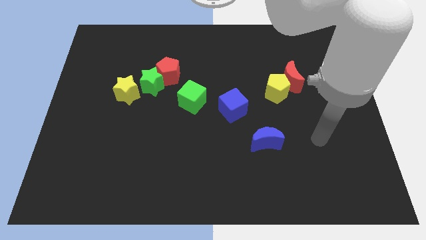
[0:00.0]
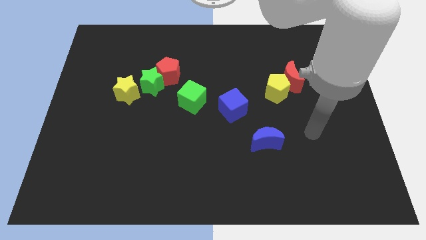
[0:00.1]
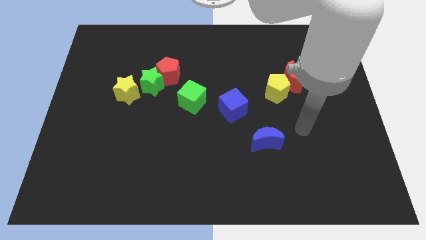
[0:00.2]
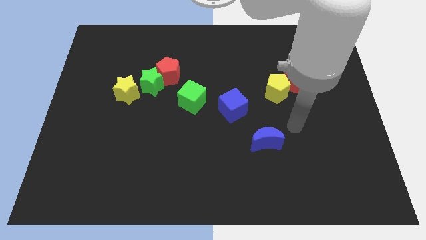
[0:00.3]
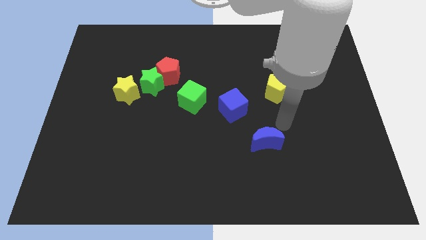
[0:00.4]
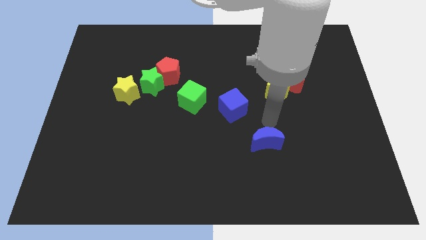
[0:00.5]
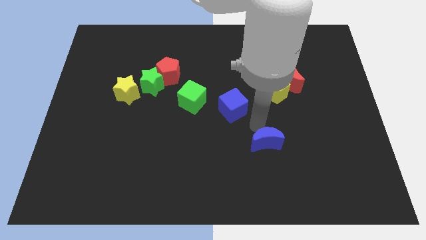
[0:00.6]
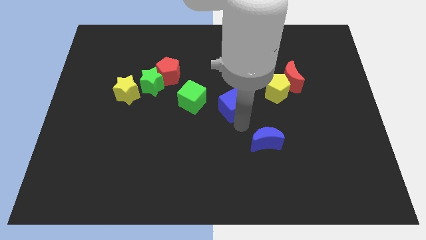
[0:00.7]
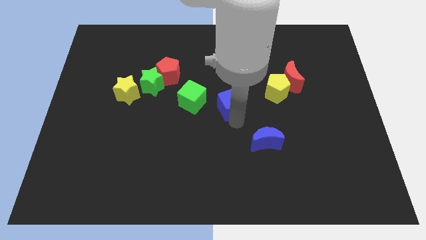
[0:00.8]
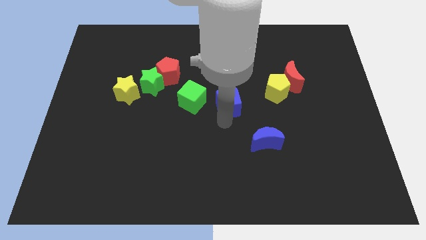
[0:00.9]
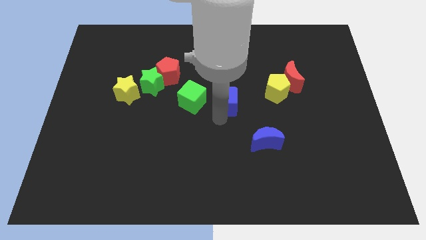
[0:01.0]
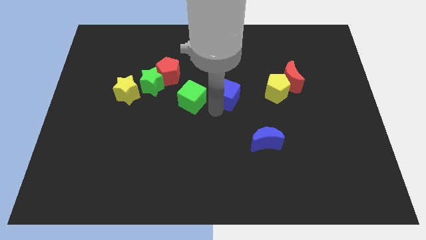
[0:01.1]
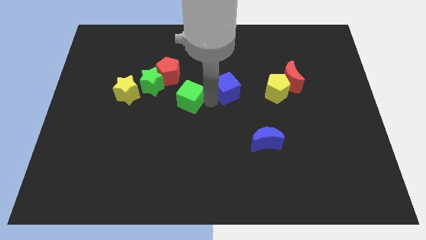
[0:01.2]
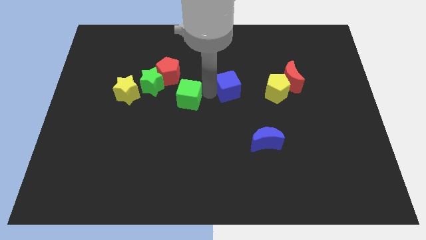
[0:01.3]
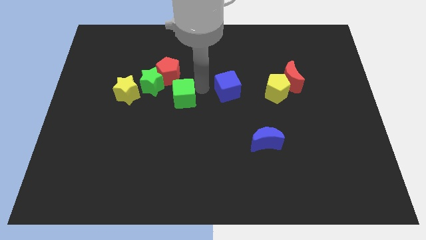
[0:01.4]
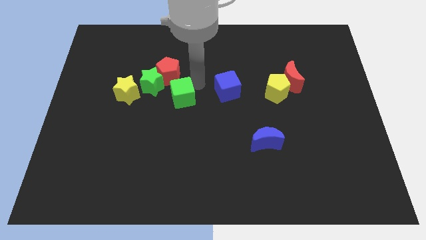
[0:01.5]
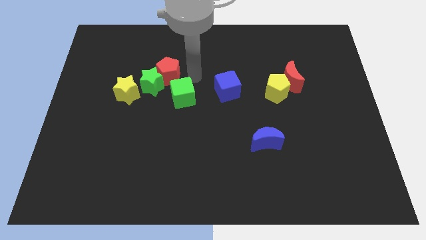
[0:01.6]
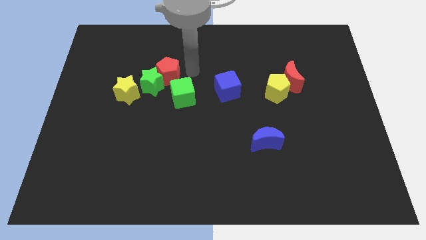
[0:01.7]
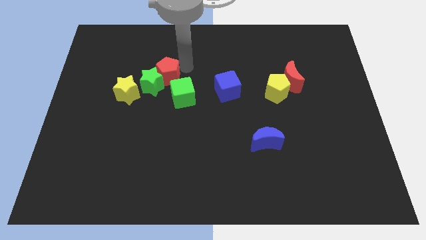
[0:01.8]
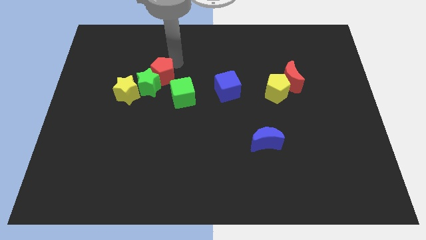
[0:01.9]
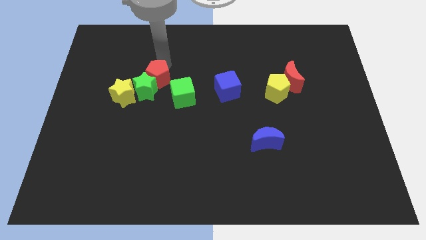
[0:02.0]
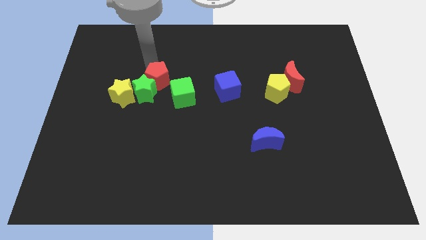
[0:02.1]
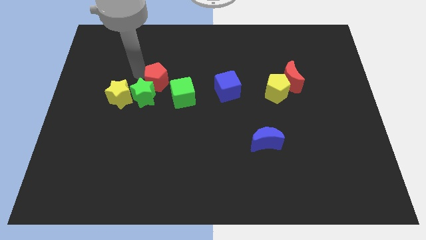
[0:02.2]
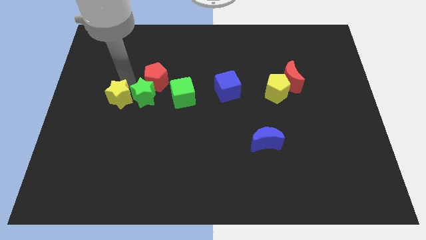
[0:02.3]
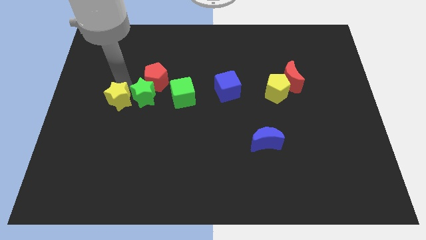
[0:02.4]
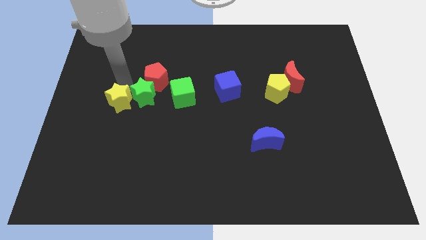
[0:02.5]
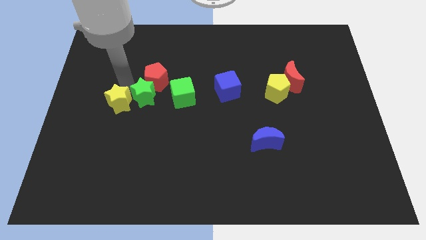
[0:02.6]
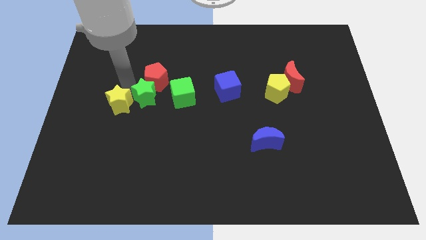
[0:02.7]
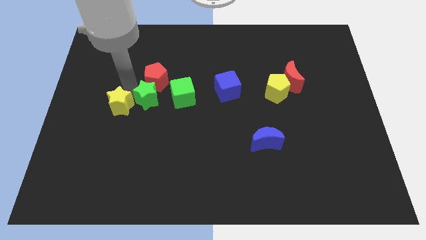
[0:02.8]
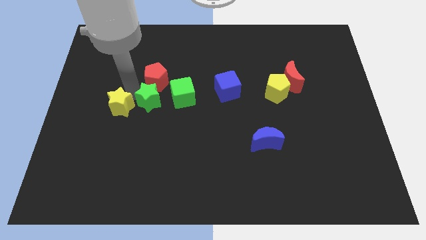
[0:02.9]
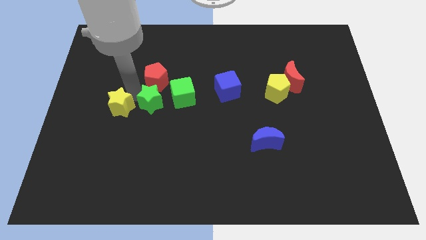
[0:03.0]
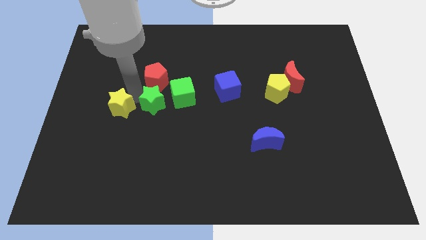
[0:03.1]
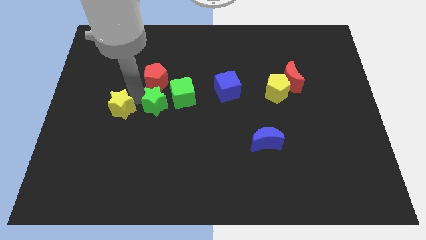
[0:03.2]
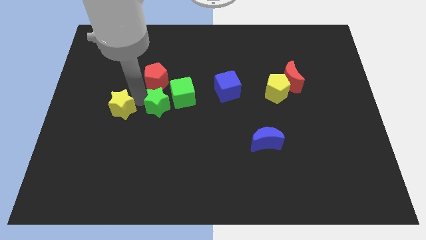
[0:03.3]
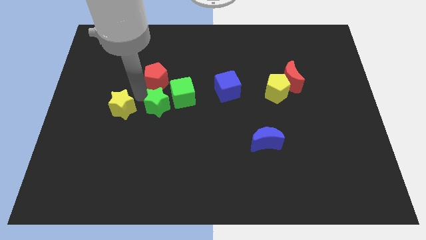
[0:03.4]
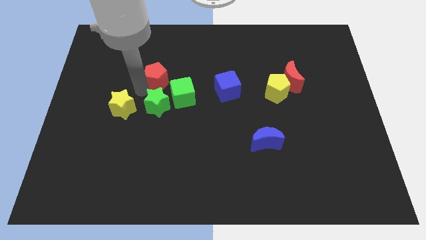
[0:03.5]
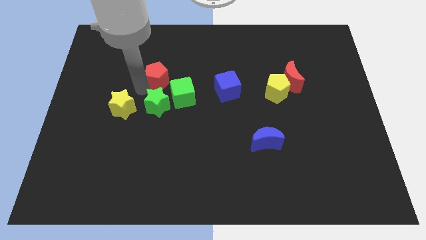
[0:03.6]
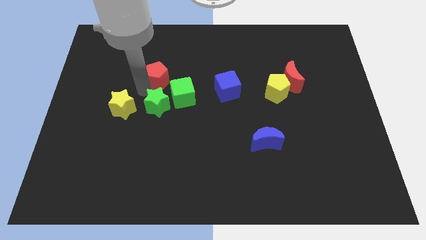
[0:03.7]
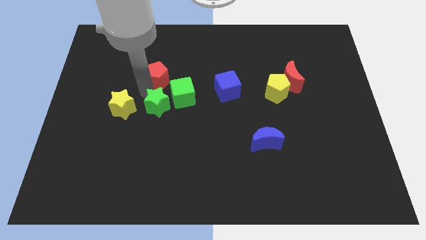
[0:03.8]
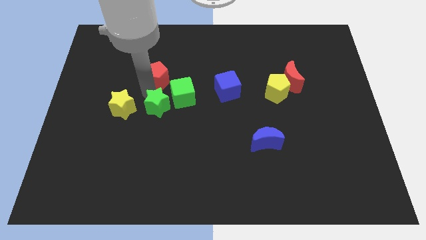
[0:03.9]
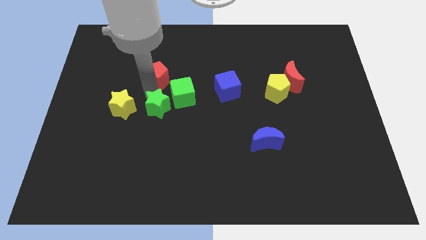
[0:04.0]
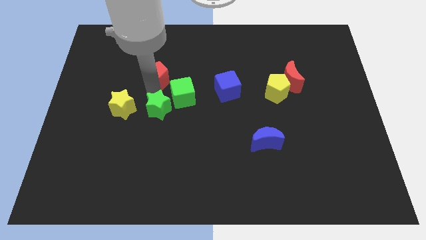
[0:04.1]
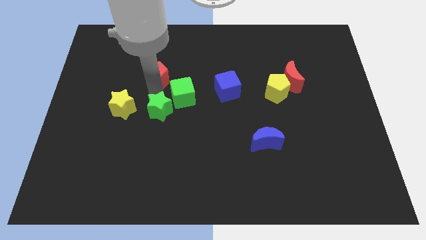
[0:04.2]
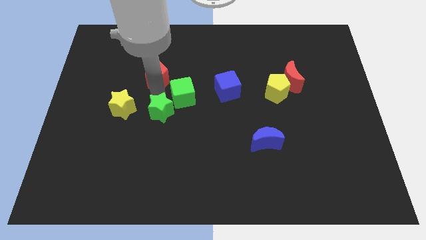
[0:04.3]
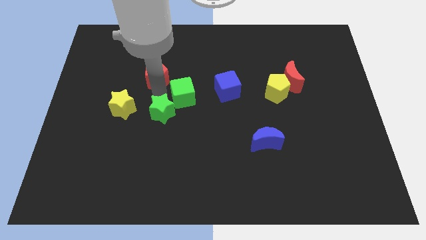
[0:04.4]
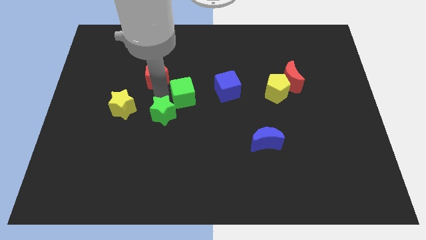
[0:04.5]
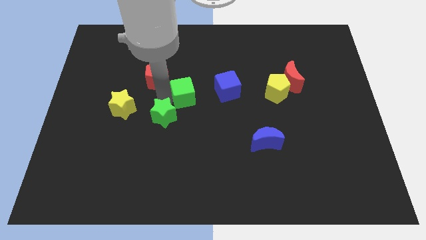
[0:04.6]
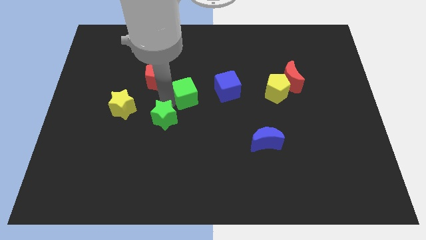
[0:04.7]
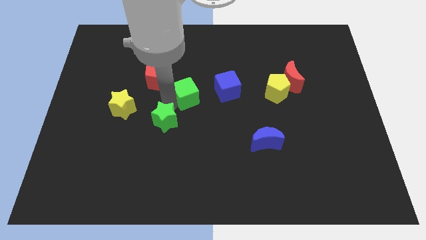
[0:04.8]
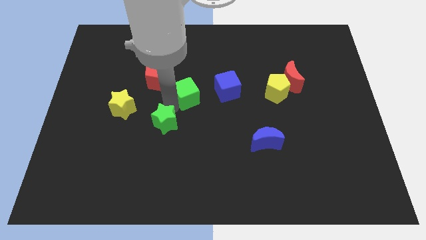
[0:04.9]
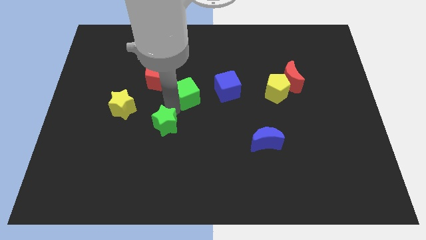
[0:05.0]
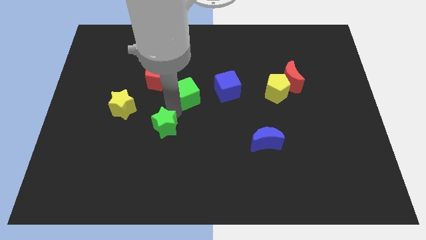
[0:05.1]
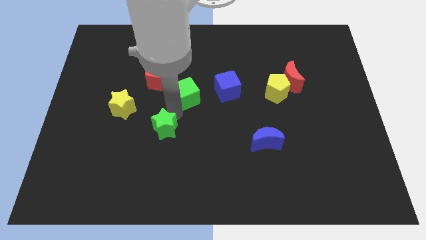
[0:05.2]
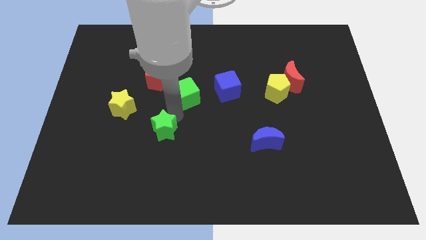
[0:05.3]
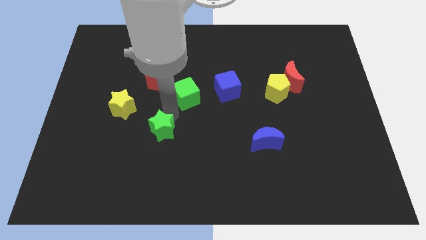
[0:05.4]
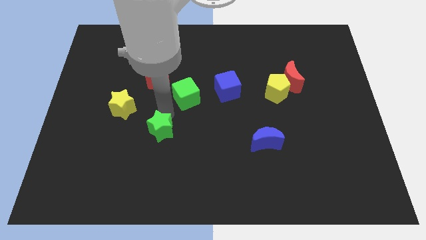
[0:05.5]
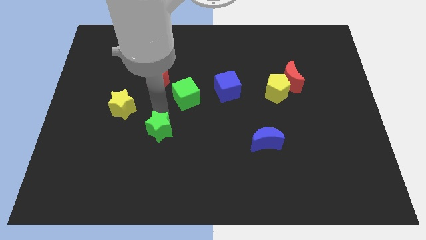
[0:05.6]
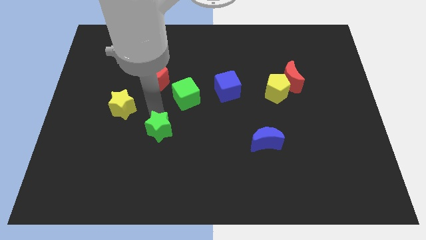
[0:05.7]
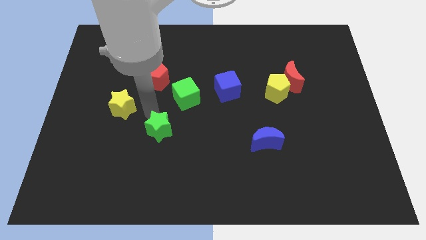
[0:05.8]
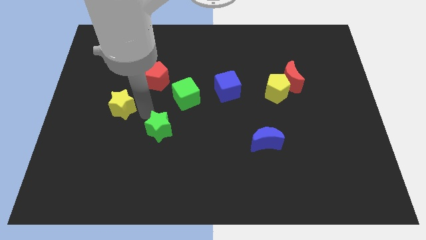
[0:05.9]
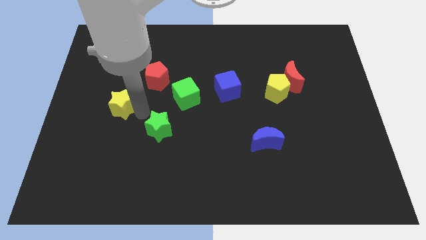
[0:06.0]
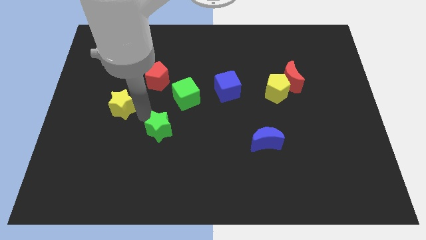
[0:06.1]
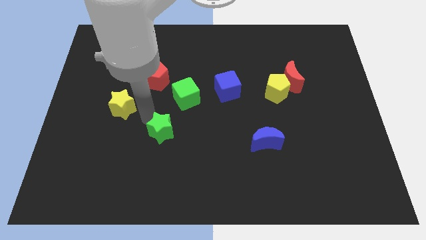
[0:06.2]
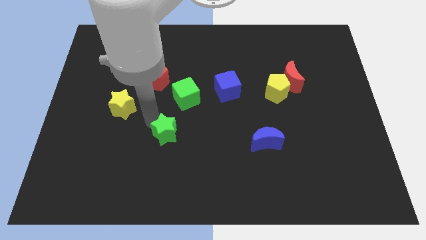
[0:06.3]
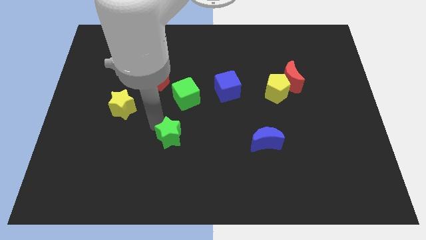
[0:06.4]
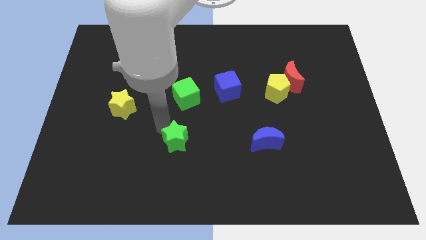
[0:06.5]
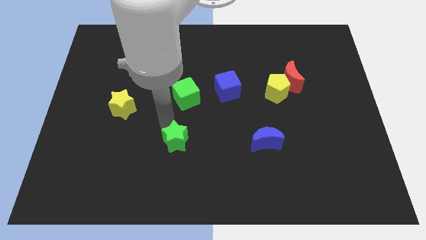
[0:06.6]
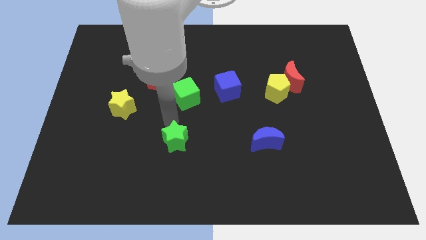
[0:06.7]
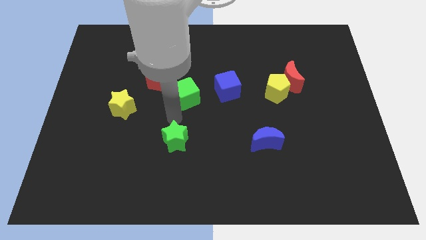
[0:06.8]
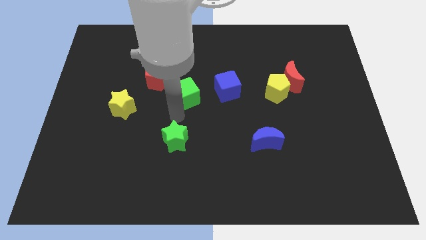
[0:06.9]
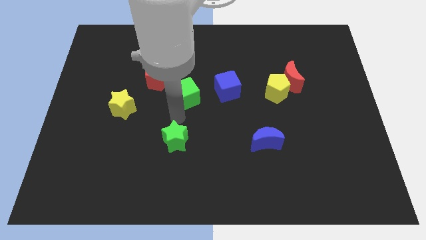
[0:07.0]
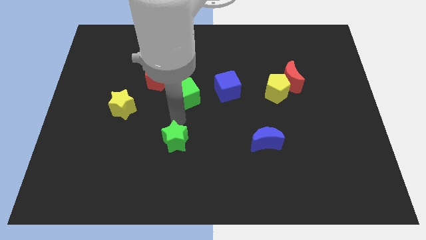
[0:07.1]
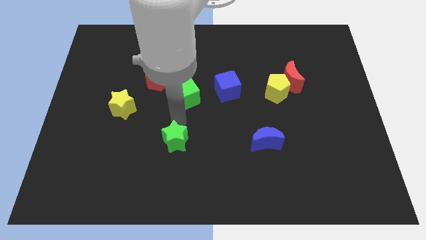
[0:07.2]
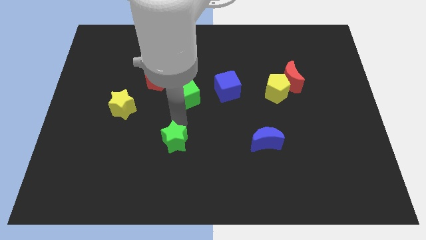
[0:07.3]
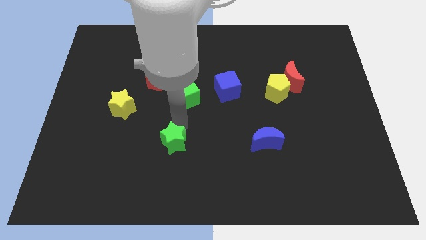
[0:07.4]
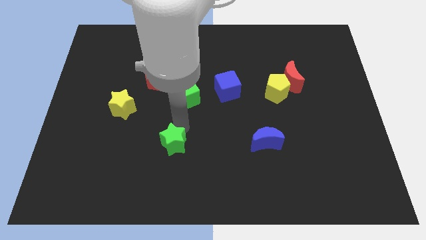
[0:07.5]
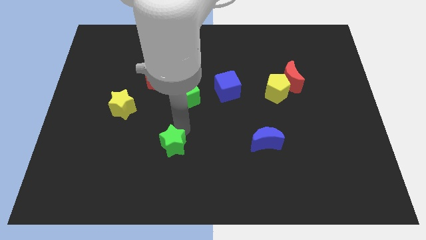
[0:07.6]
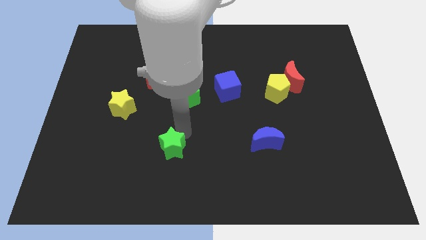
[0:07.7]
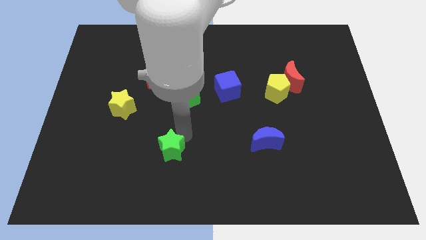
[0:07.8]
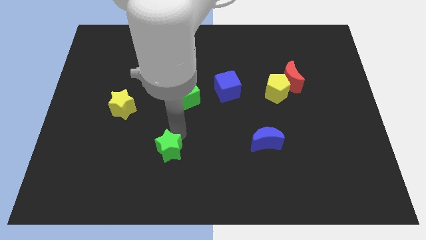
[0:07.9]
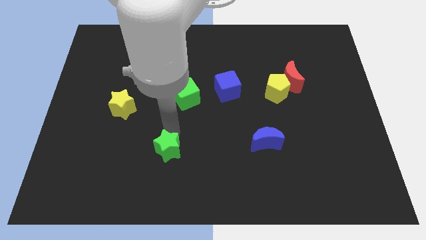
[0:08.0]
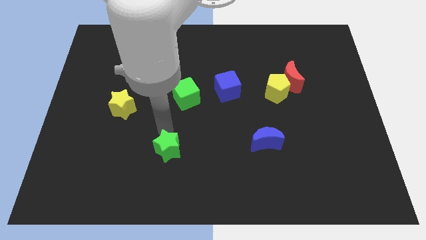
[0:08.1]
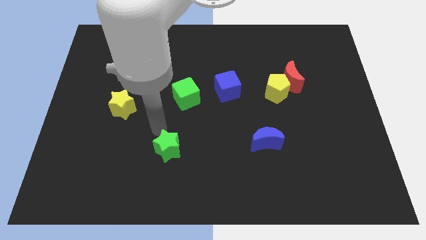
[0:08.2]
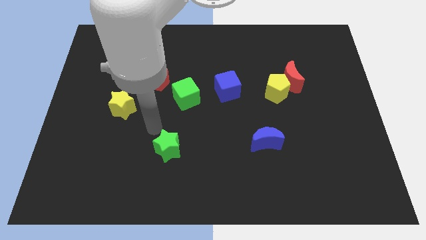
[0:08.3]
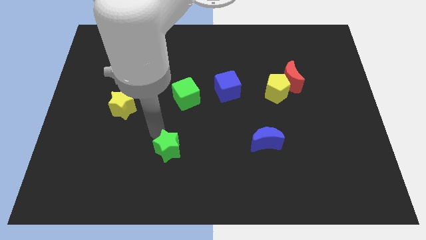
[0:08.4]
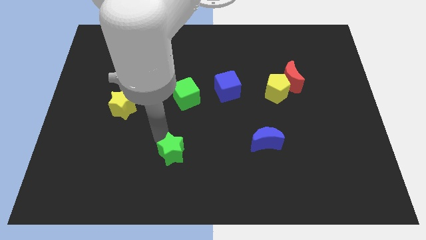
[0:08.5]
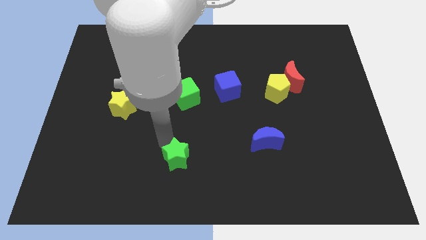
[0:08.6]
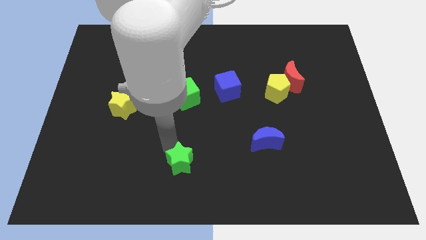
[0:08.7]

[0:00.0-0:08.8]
put the green star to the bottom side
